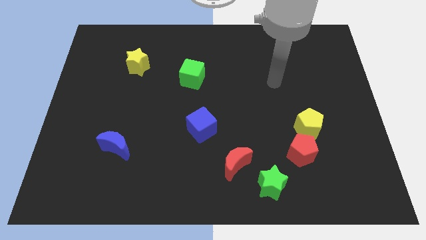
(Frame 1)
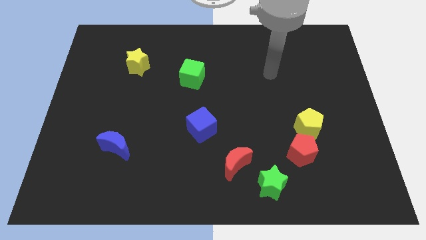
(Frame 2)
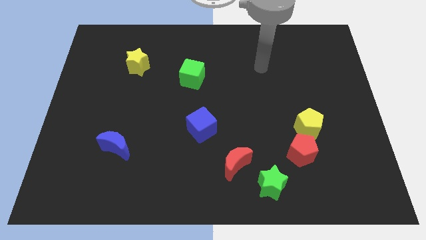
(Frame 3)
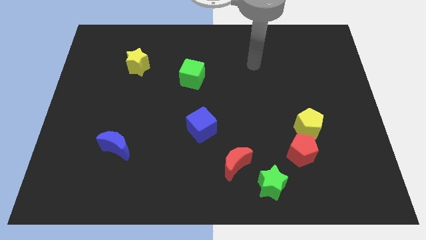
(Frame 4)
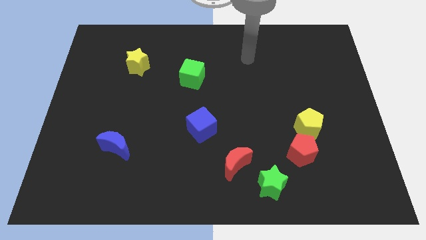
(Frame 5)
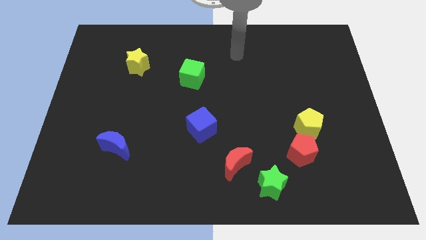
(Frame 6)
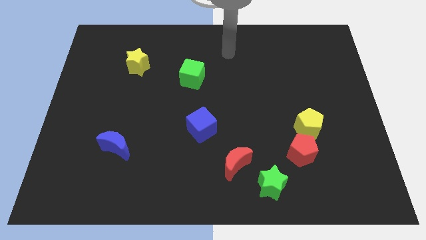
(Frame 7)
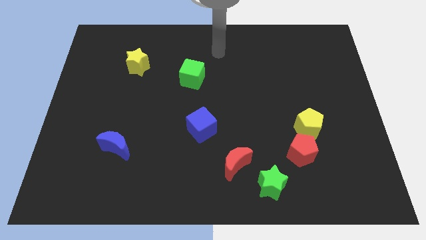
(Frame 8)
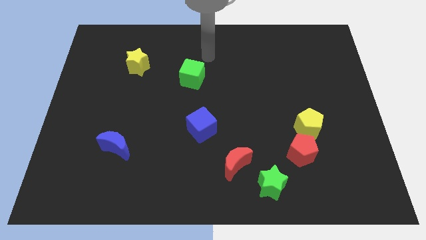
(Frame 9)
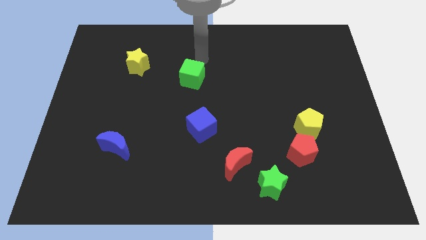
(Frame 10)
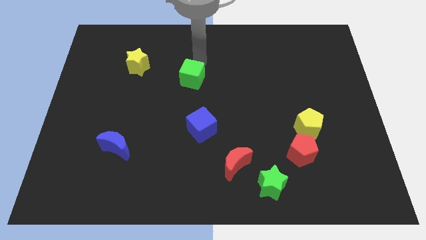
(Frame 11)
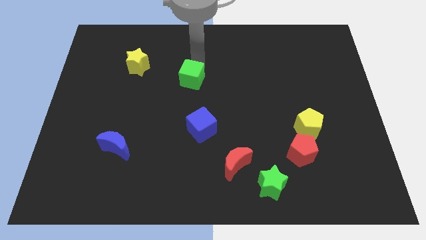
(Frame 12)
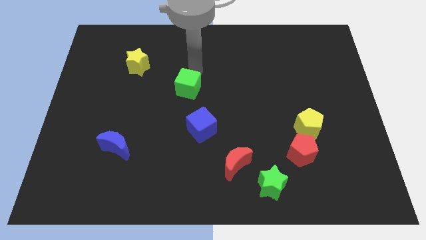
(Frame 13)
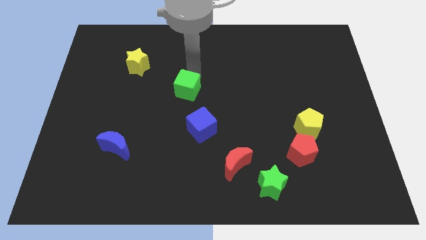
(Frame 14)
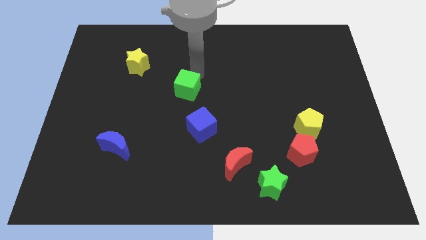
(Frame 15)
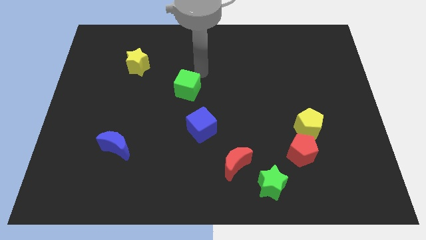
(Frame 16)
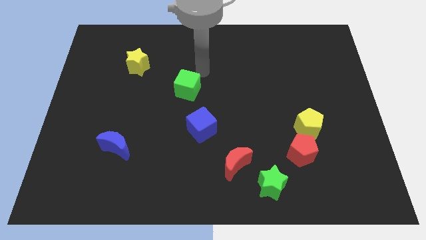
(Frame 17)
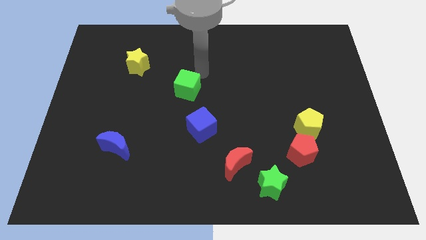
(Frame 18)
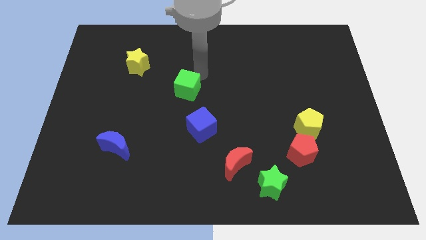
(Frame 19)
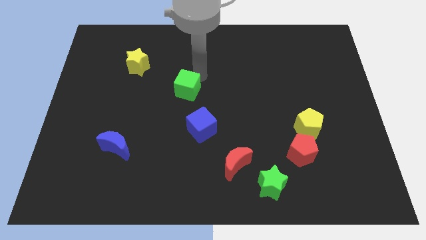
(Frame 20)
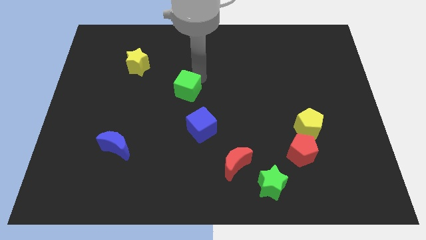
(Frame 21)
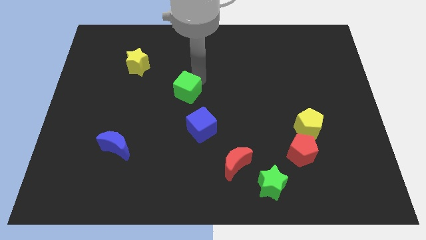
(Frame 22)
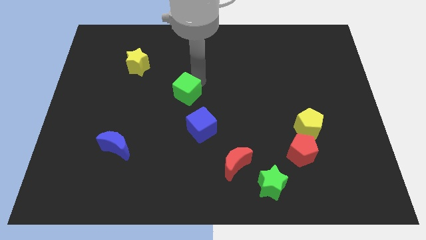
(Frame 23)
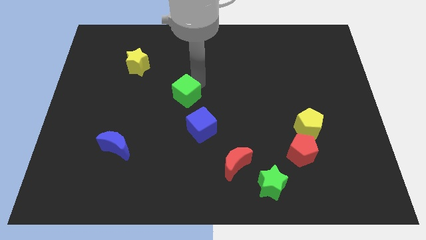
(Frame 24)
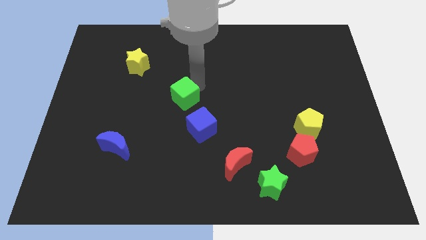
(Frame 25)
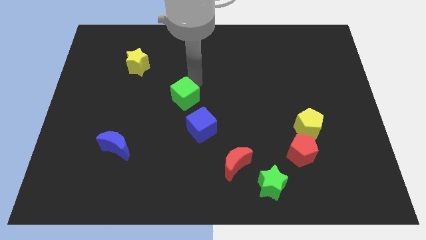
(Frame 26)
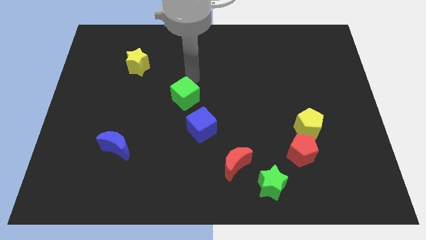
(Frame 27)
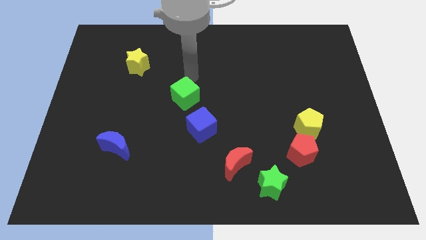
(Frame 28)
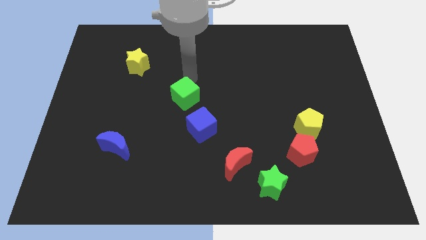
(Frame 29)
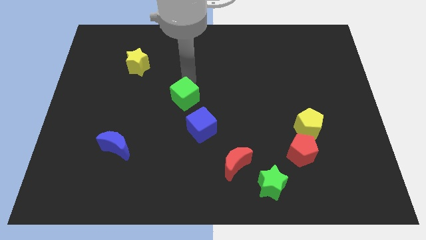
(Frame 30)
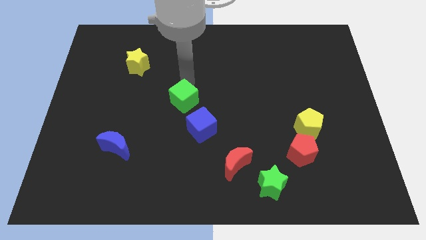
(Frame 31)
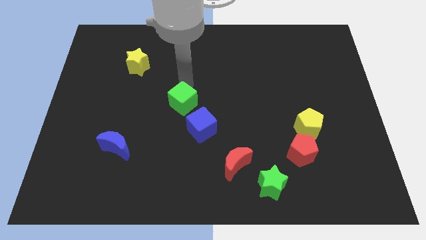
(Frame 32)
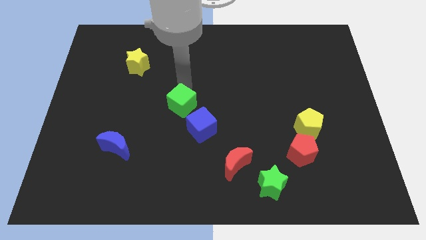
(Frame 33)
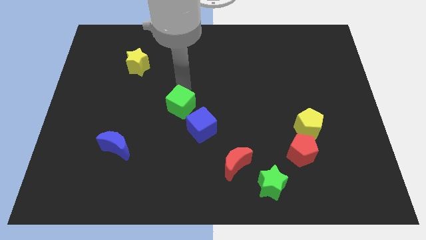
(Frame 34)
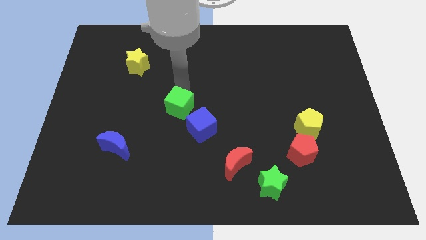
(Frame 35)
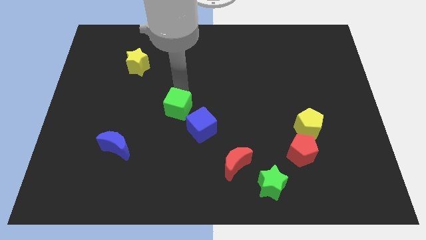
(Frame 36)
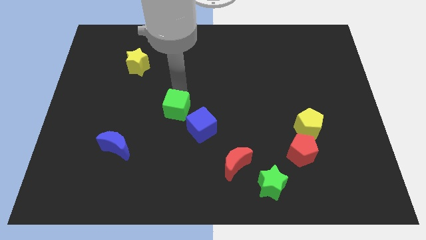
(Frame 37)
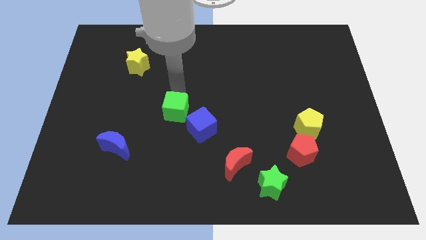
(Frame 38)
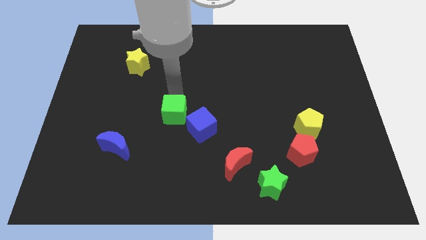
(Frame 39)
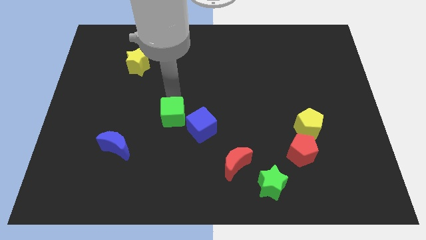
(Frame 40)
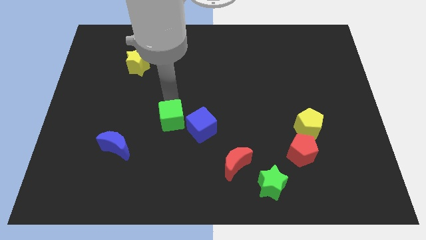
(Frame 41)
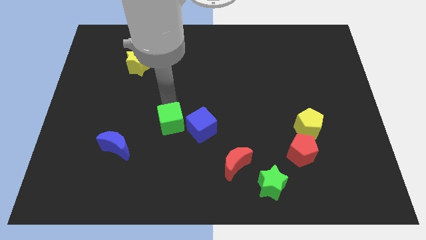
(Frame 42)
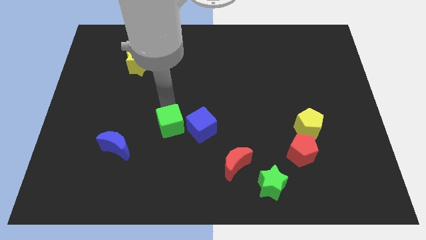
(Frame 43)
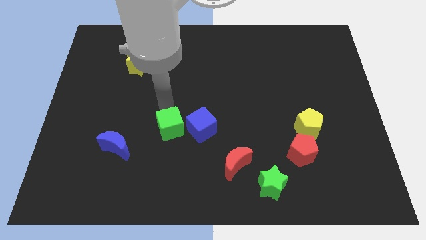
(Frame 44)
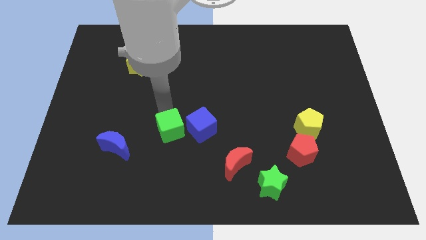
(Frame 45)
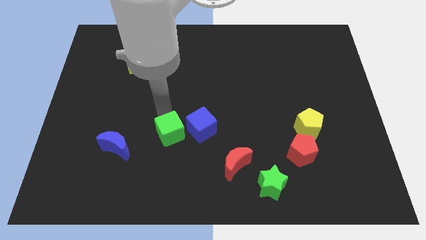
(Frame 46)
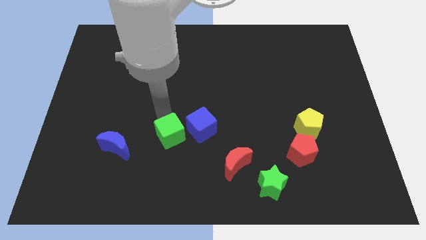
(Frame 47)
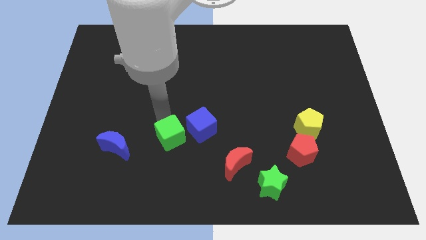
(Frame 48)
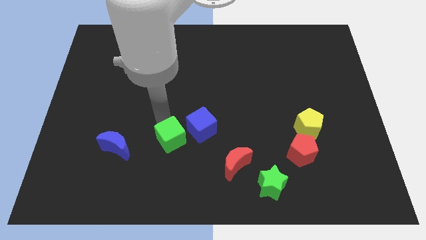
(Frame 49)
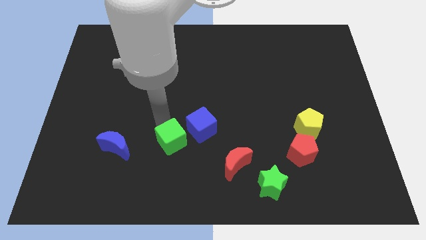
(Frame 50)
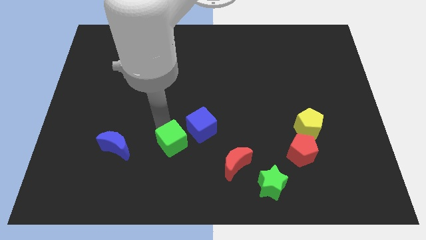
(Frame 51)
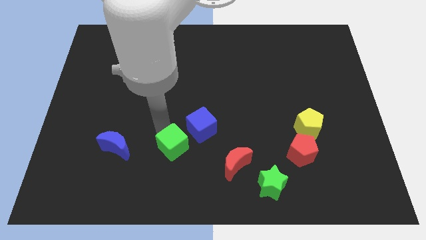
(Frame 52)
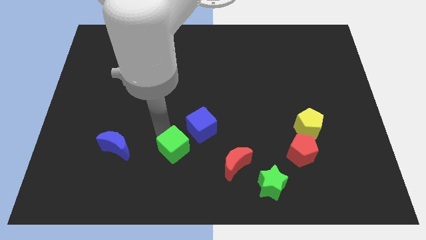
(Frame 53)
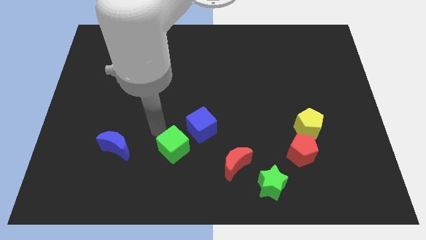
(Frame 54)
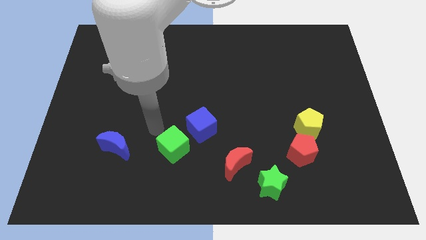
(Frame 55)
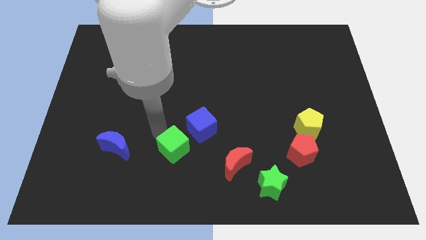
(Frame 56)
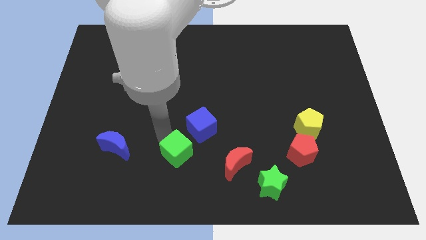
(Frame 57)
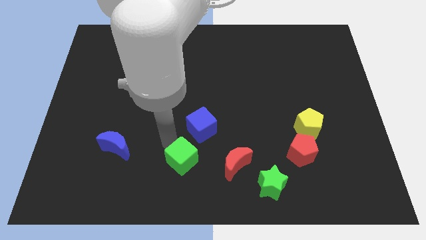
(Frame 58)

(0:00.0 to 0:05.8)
put the green cube to the bottom

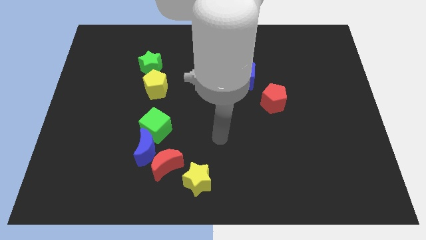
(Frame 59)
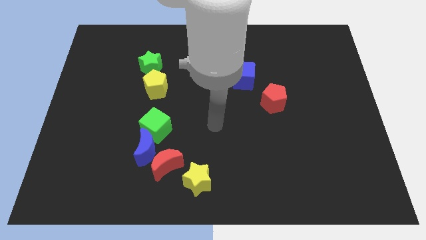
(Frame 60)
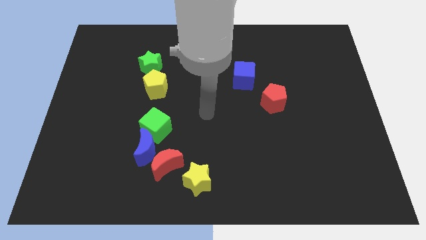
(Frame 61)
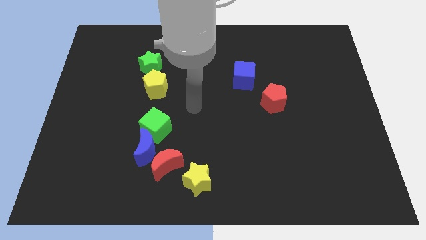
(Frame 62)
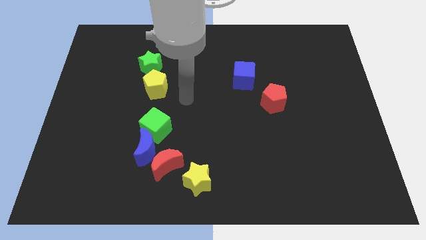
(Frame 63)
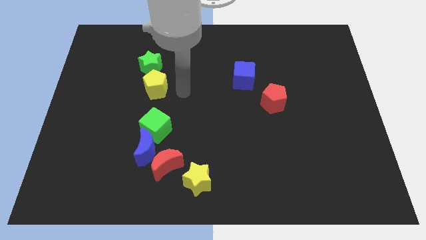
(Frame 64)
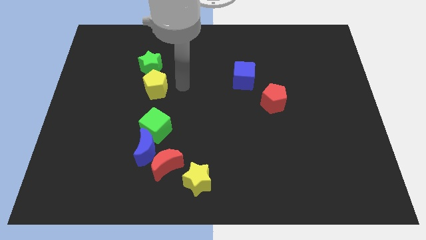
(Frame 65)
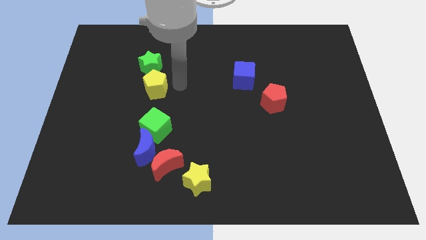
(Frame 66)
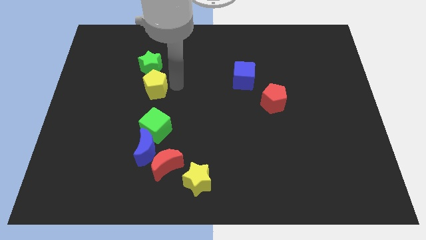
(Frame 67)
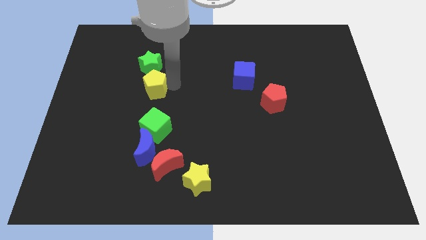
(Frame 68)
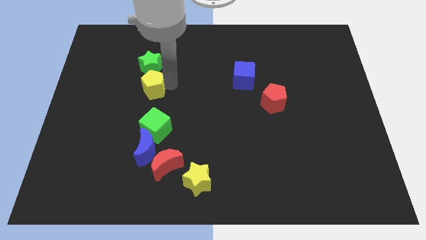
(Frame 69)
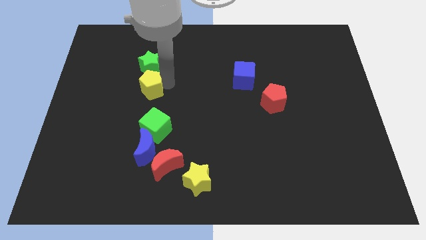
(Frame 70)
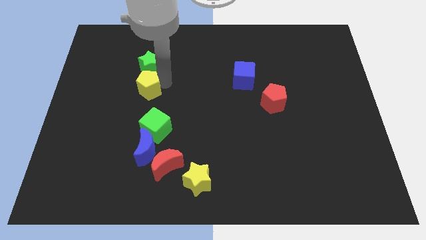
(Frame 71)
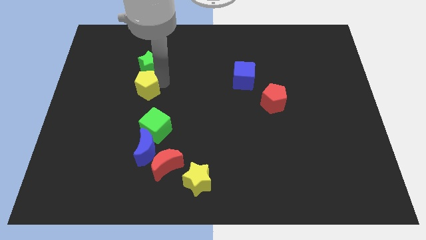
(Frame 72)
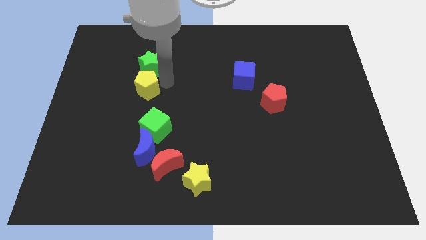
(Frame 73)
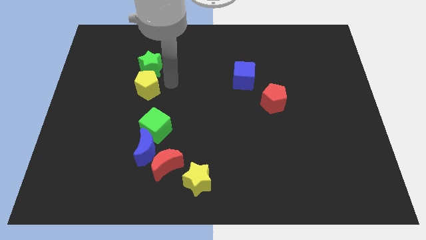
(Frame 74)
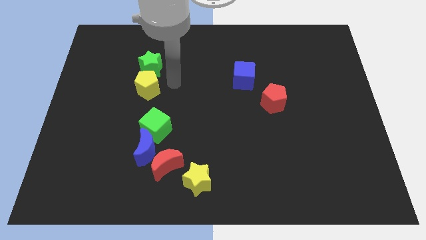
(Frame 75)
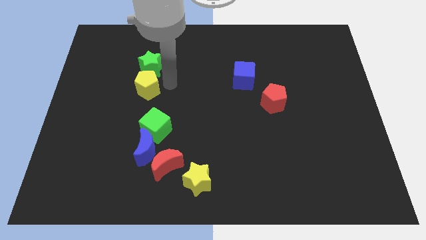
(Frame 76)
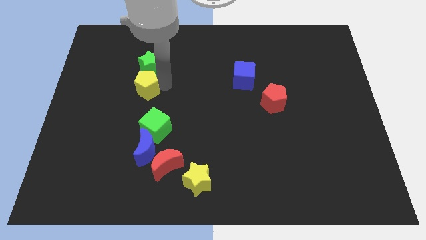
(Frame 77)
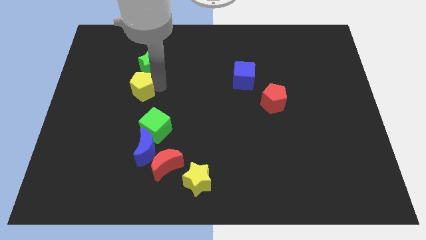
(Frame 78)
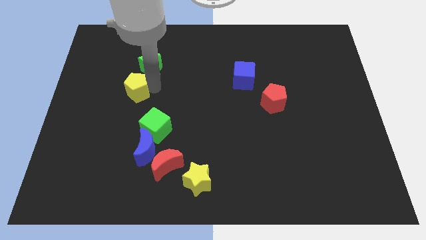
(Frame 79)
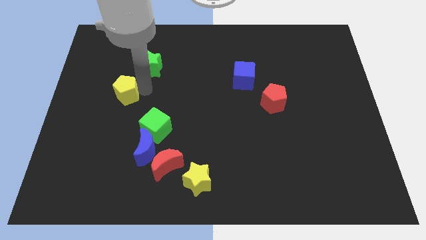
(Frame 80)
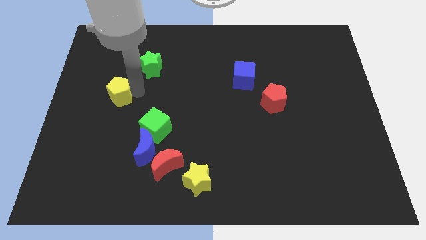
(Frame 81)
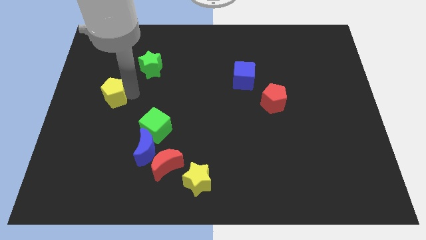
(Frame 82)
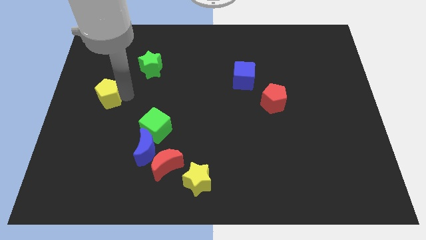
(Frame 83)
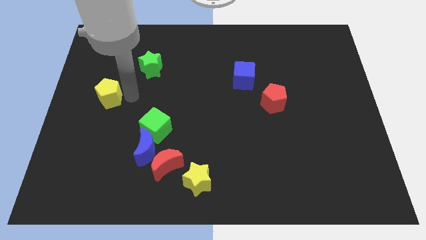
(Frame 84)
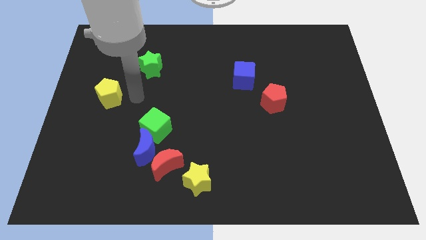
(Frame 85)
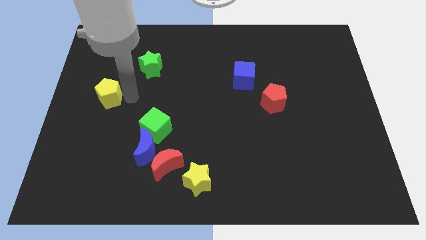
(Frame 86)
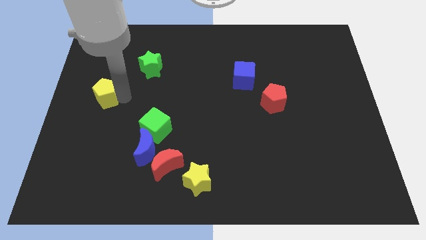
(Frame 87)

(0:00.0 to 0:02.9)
slide the yellow pentagon to the center left
